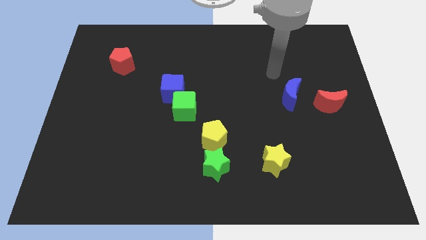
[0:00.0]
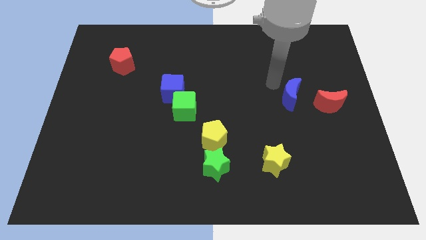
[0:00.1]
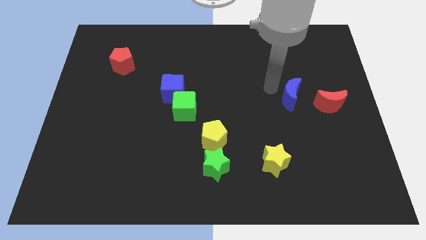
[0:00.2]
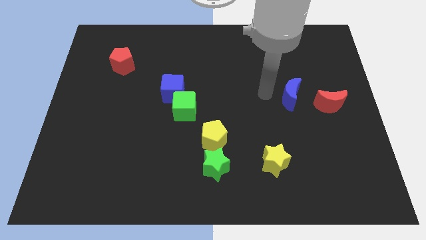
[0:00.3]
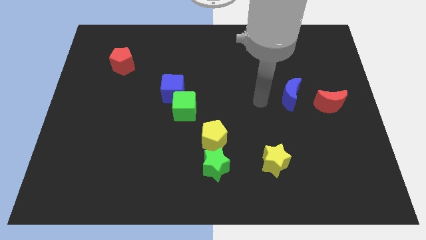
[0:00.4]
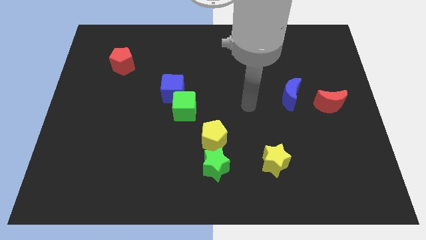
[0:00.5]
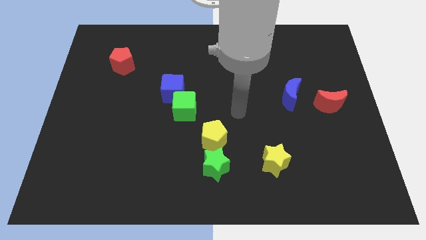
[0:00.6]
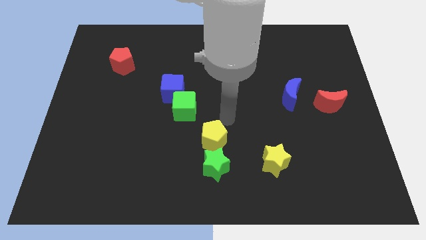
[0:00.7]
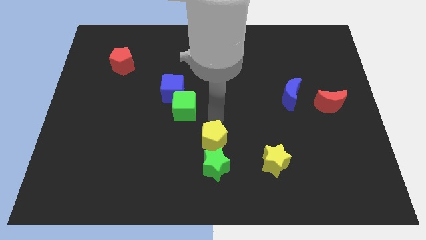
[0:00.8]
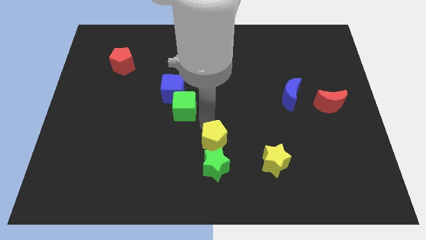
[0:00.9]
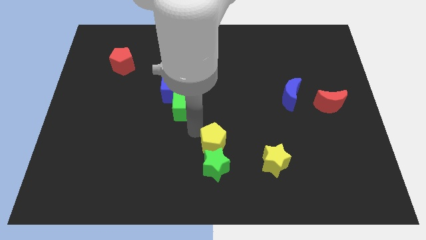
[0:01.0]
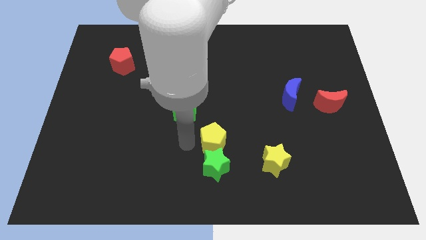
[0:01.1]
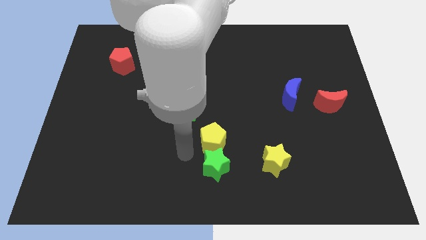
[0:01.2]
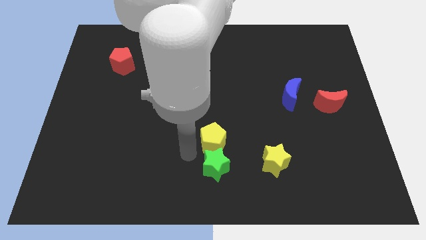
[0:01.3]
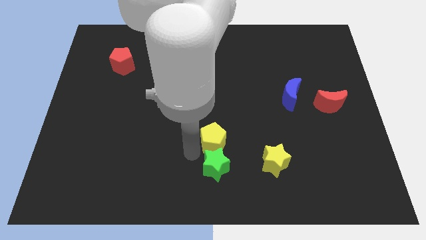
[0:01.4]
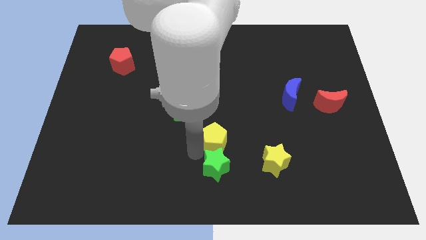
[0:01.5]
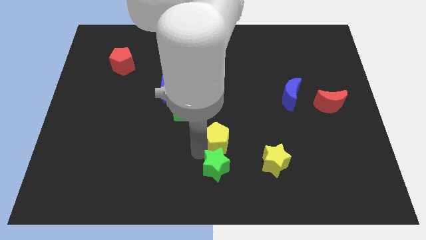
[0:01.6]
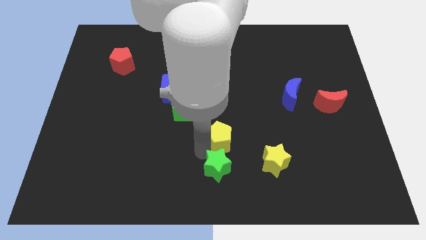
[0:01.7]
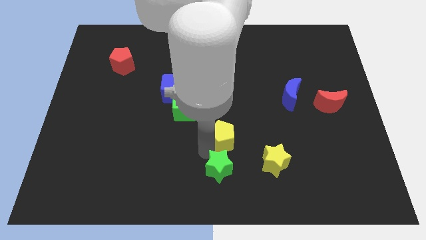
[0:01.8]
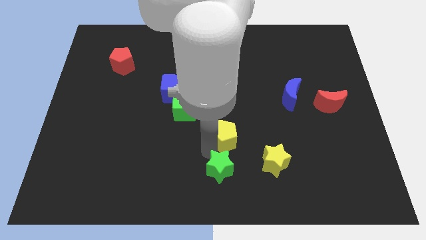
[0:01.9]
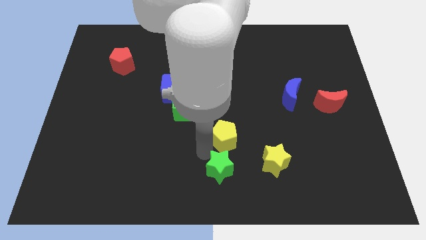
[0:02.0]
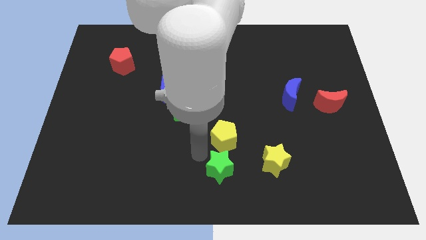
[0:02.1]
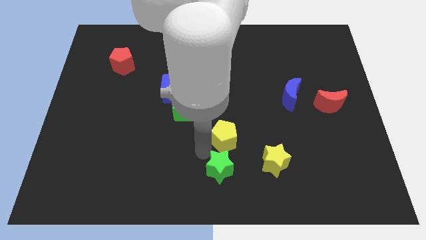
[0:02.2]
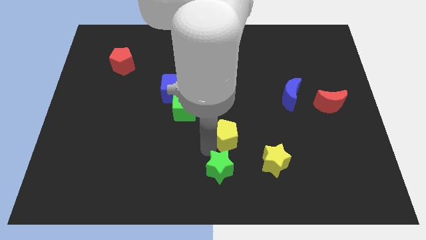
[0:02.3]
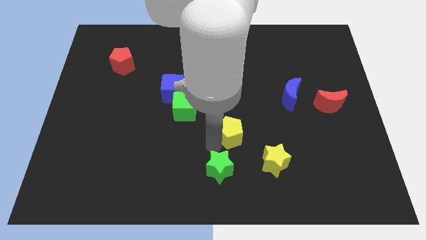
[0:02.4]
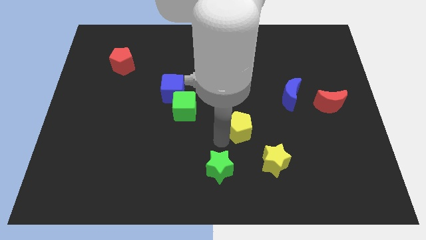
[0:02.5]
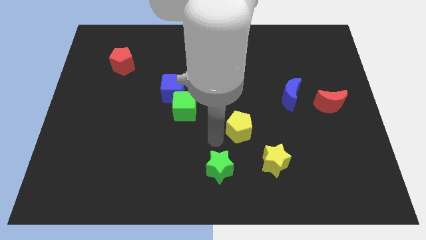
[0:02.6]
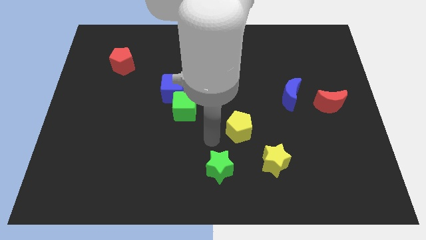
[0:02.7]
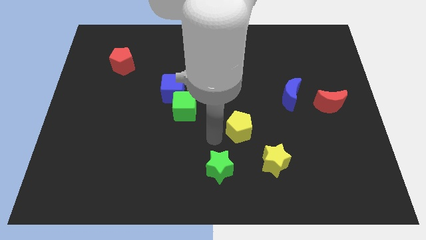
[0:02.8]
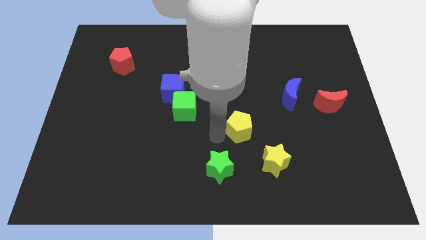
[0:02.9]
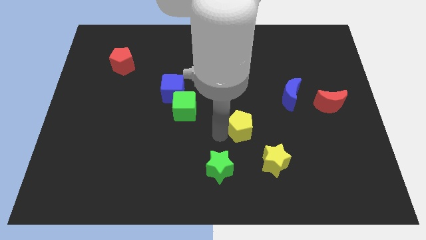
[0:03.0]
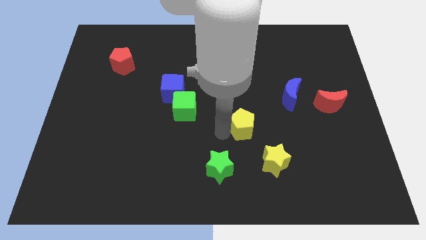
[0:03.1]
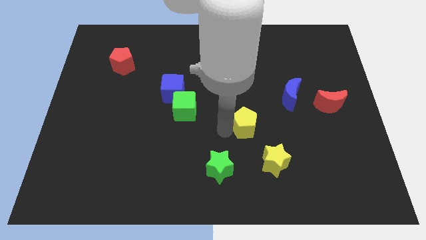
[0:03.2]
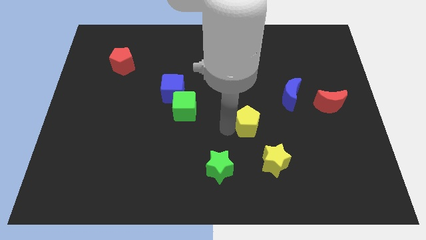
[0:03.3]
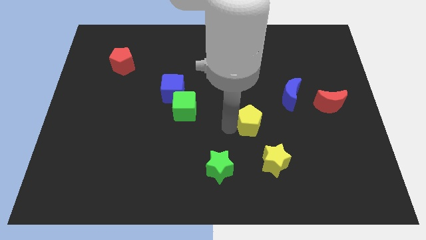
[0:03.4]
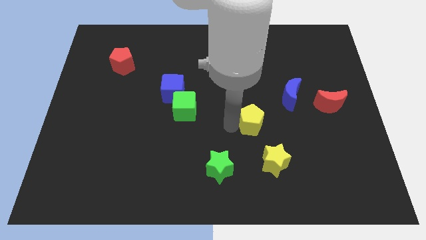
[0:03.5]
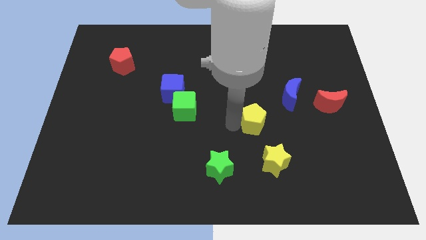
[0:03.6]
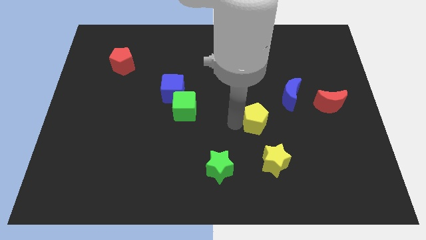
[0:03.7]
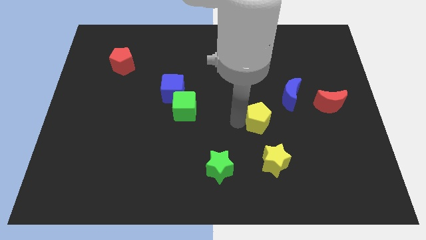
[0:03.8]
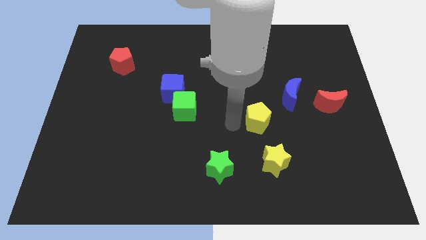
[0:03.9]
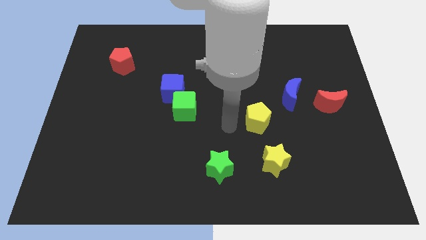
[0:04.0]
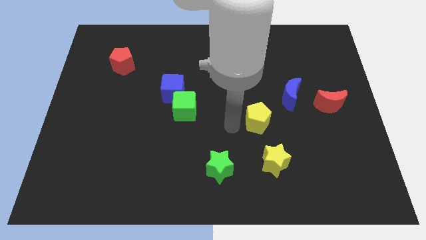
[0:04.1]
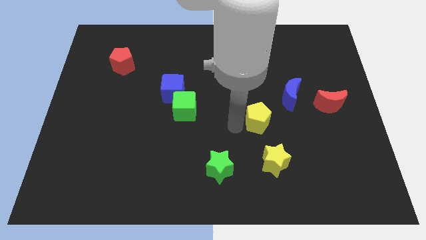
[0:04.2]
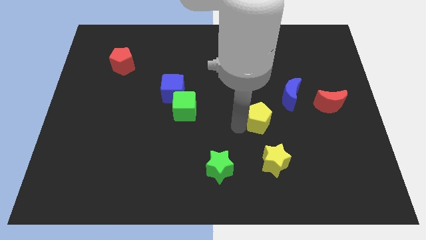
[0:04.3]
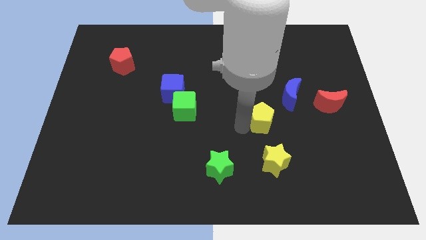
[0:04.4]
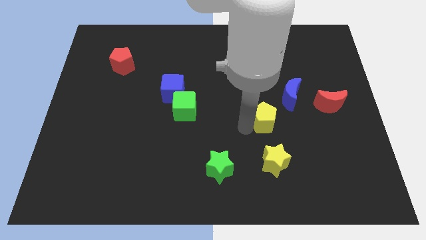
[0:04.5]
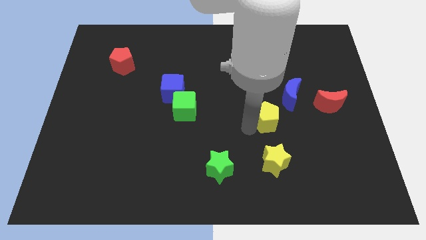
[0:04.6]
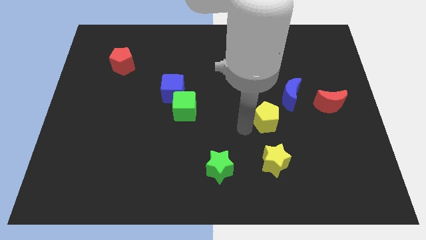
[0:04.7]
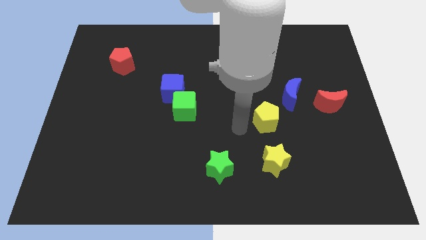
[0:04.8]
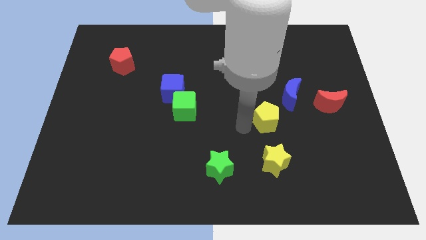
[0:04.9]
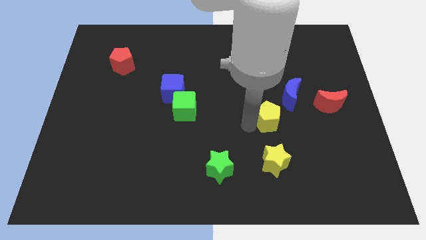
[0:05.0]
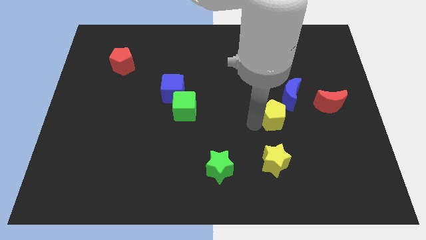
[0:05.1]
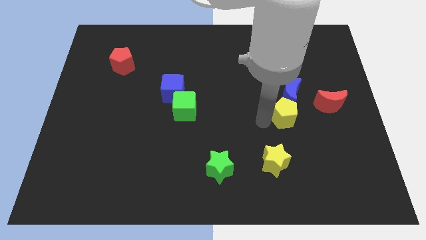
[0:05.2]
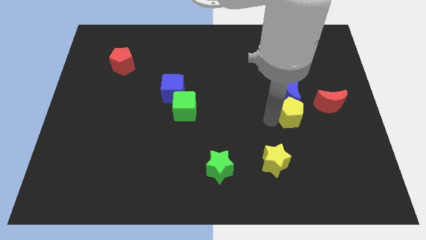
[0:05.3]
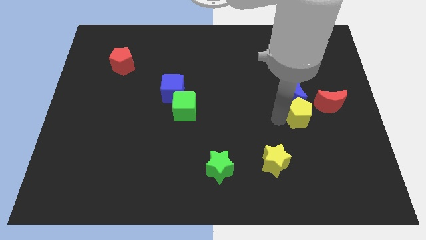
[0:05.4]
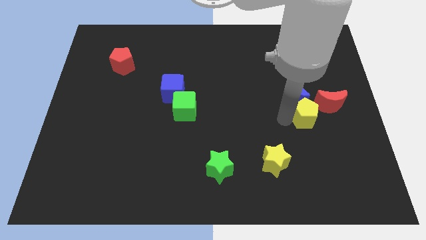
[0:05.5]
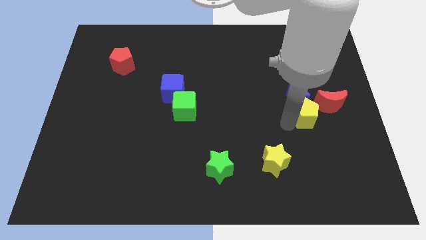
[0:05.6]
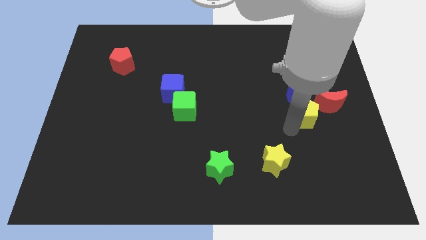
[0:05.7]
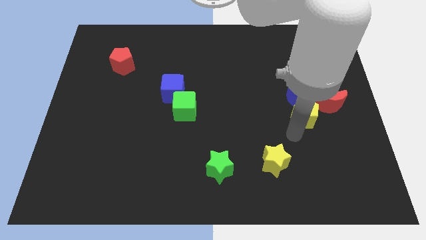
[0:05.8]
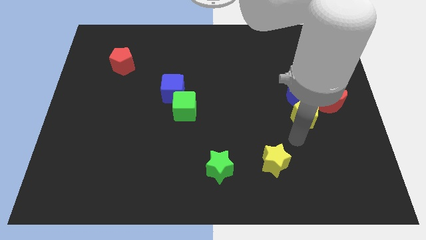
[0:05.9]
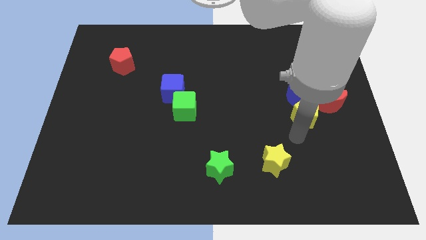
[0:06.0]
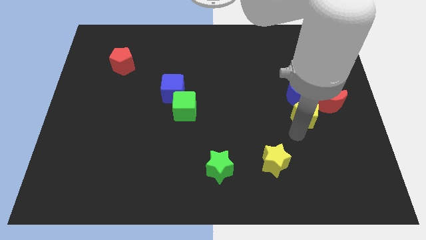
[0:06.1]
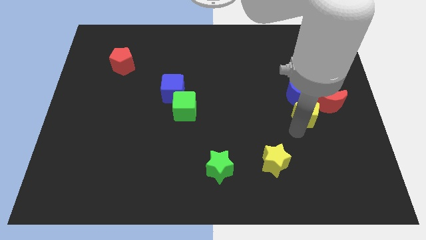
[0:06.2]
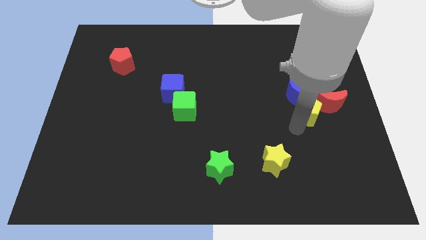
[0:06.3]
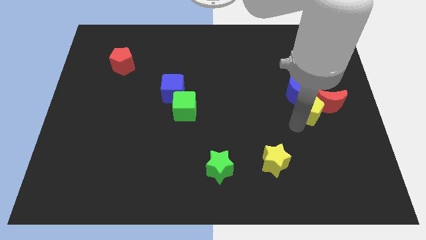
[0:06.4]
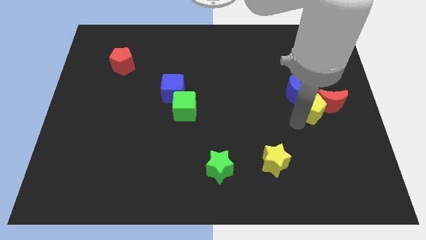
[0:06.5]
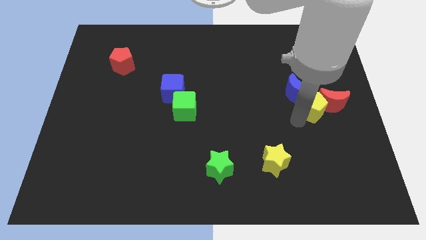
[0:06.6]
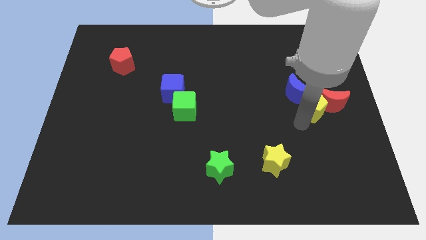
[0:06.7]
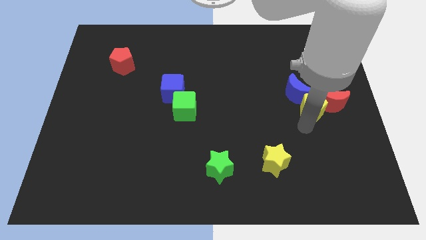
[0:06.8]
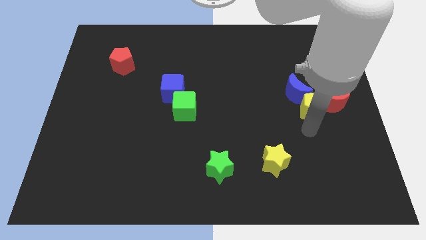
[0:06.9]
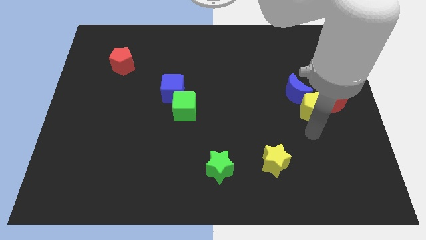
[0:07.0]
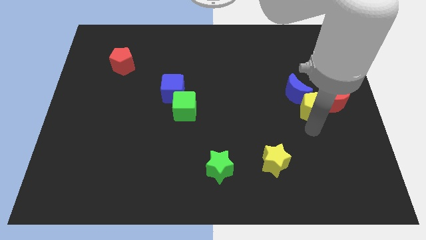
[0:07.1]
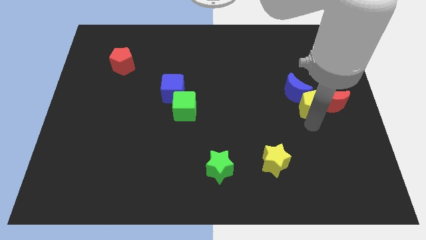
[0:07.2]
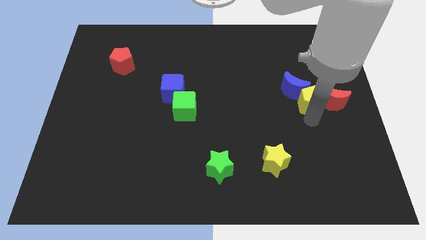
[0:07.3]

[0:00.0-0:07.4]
move the yellow pentagon just right of the blue moon
